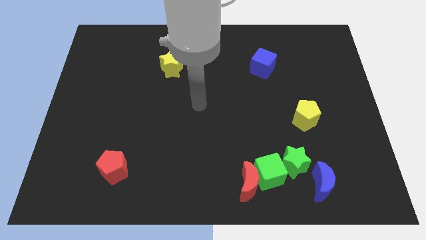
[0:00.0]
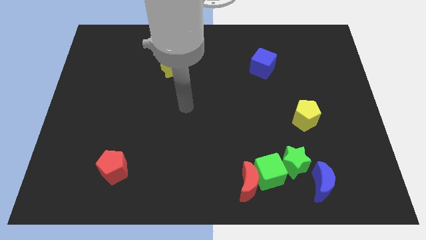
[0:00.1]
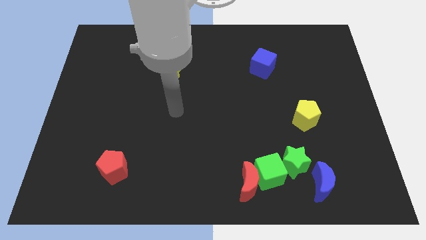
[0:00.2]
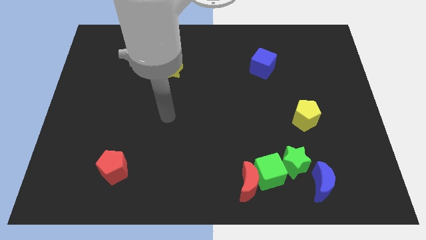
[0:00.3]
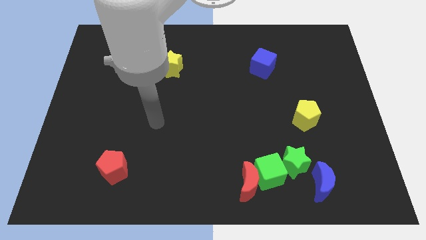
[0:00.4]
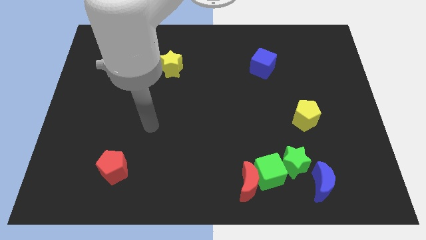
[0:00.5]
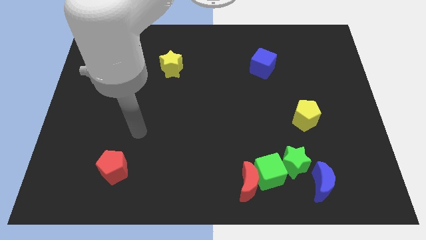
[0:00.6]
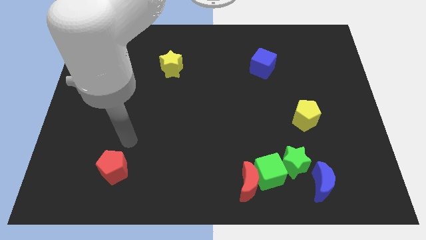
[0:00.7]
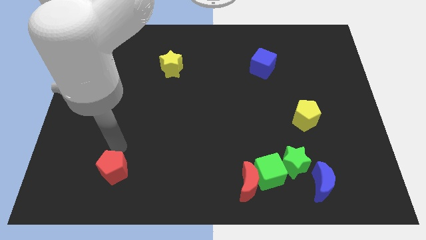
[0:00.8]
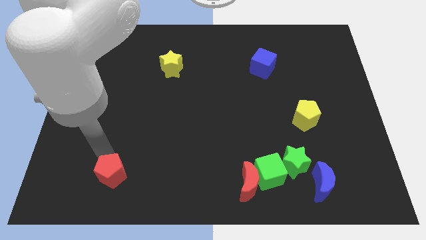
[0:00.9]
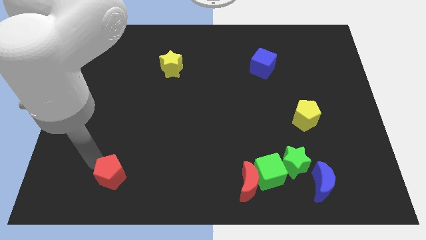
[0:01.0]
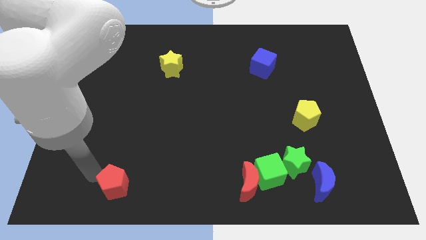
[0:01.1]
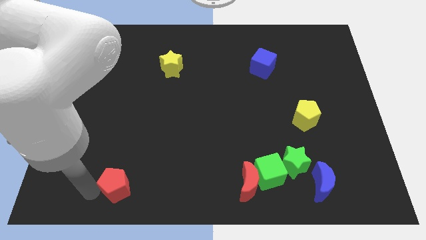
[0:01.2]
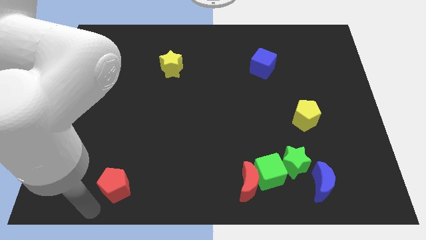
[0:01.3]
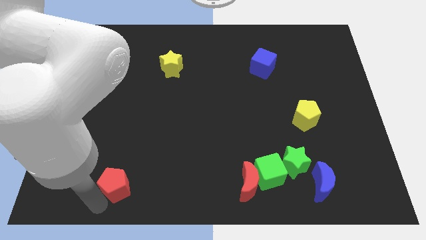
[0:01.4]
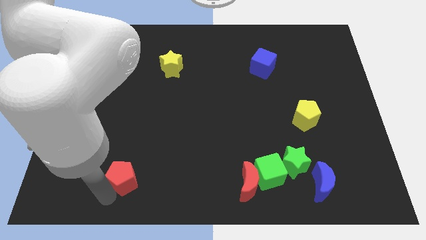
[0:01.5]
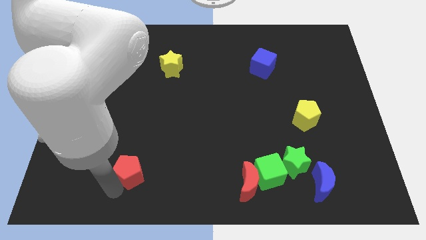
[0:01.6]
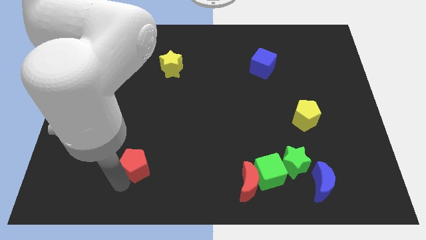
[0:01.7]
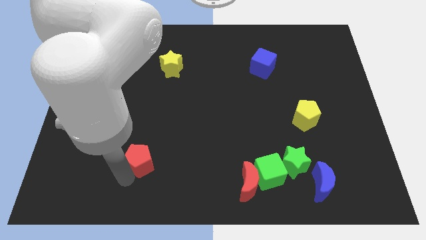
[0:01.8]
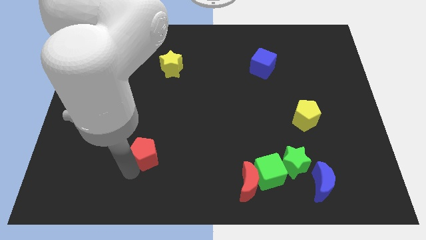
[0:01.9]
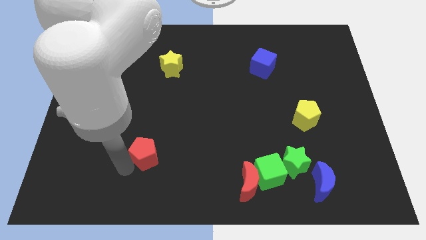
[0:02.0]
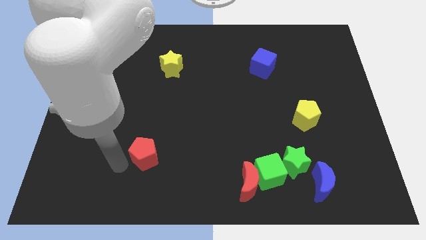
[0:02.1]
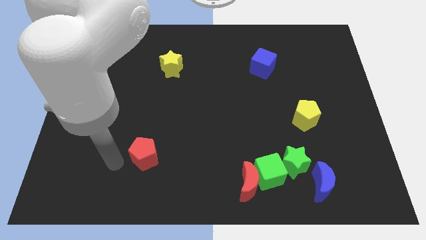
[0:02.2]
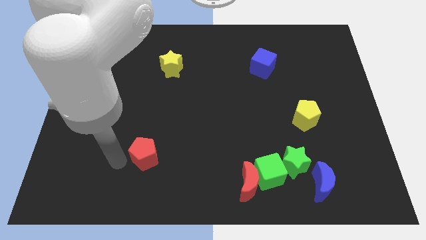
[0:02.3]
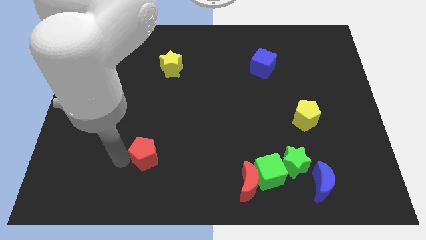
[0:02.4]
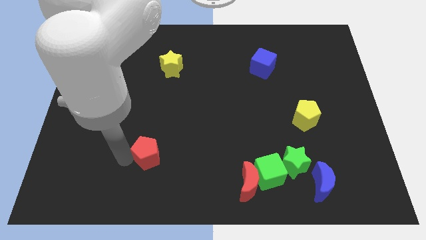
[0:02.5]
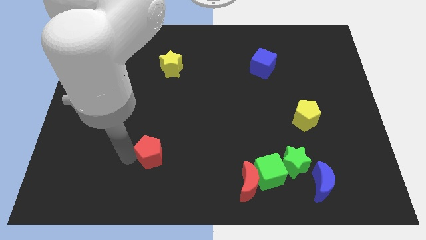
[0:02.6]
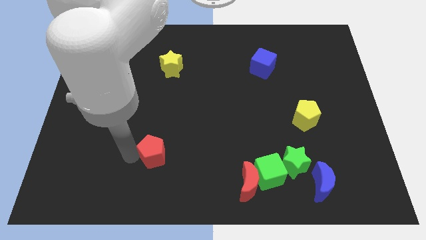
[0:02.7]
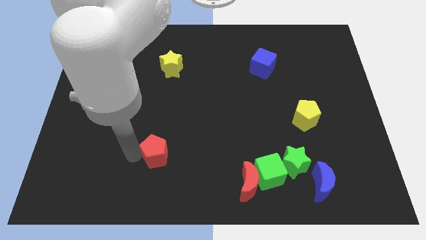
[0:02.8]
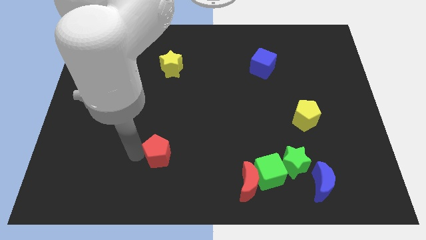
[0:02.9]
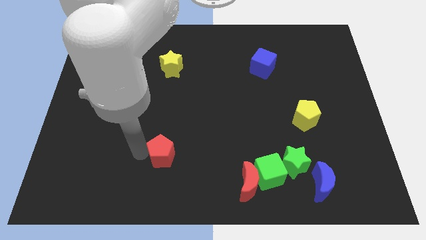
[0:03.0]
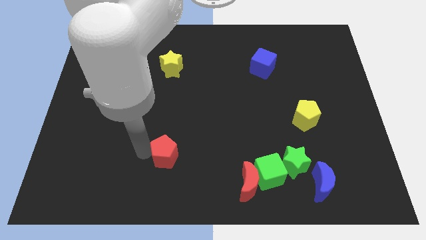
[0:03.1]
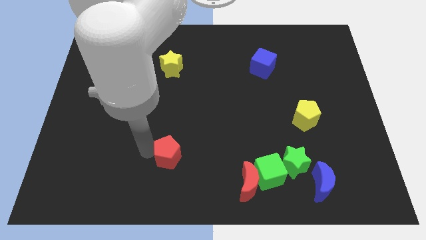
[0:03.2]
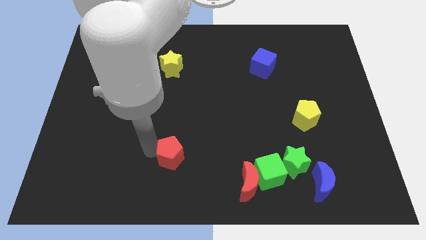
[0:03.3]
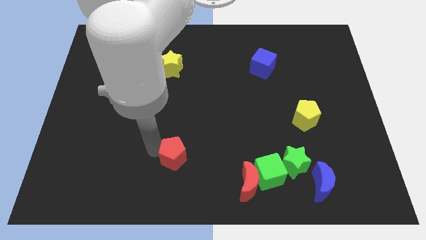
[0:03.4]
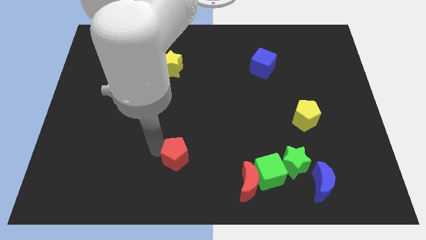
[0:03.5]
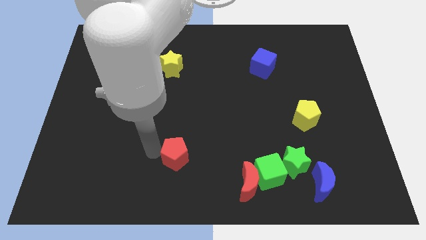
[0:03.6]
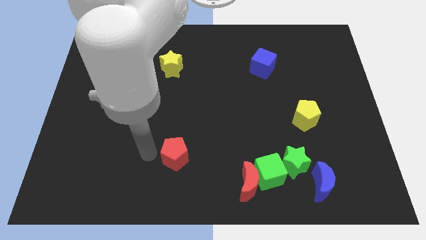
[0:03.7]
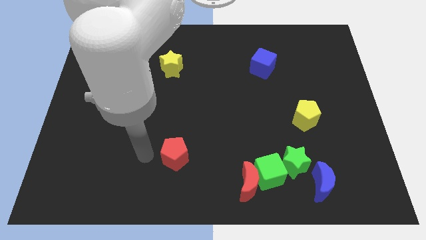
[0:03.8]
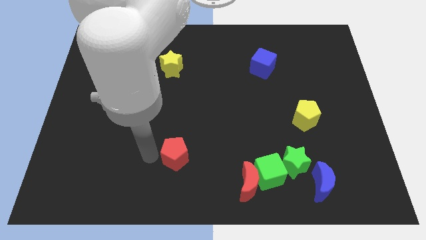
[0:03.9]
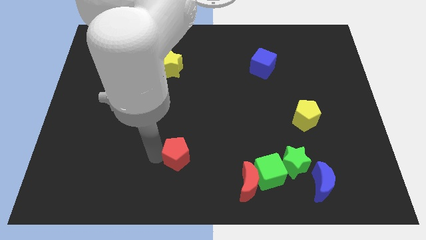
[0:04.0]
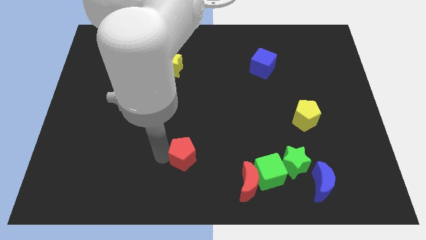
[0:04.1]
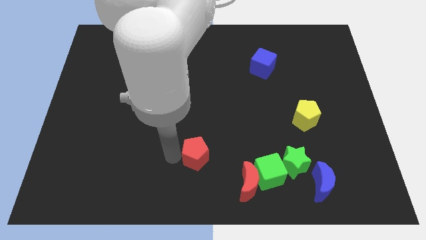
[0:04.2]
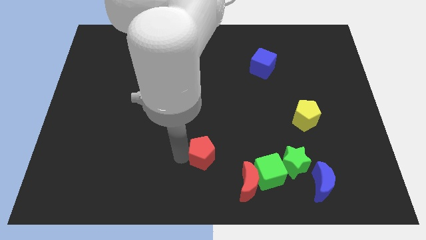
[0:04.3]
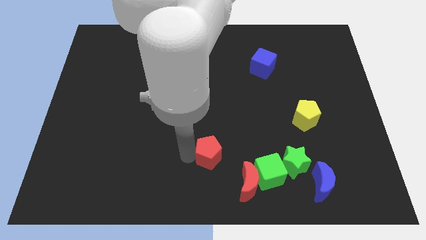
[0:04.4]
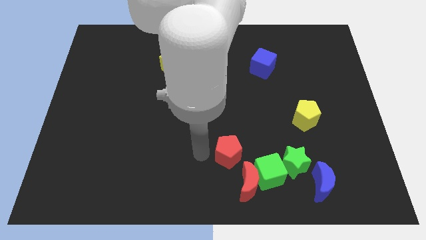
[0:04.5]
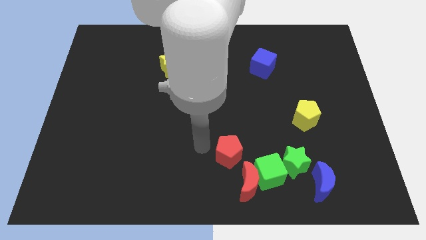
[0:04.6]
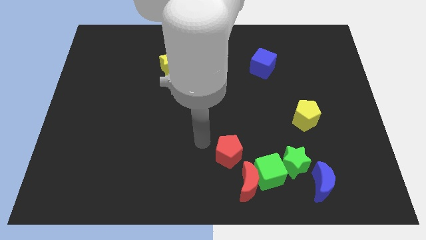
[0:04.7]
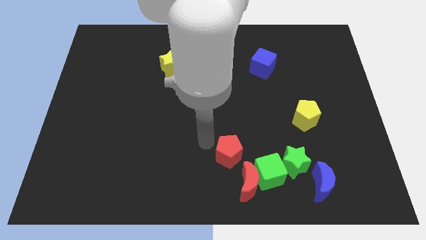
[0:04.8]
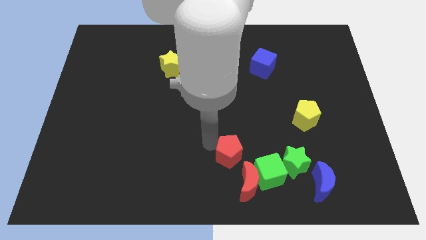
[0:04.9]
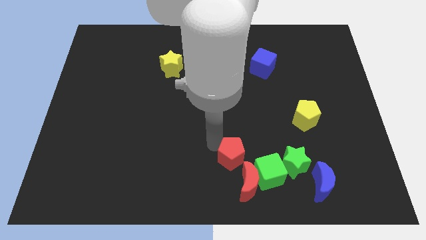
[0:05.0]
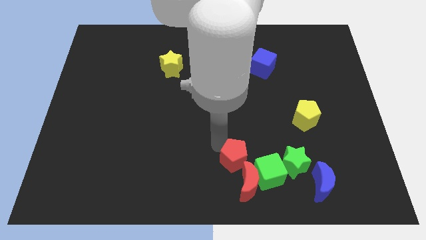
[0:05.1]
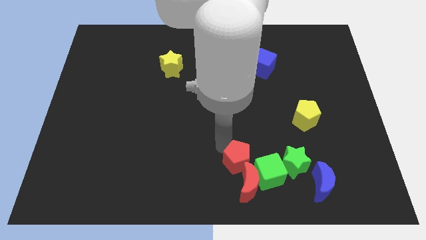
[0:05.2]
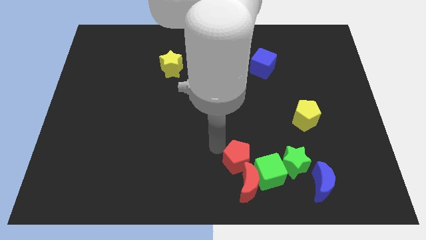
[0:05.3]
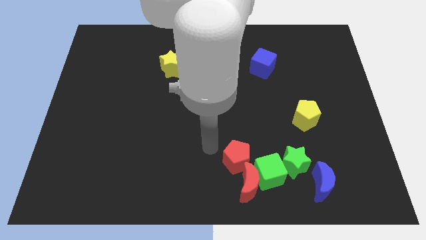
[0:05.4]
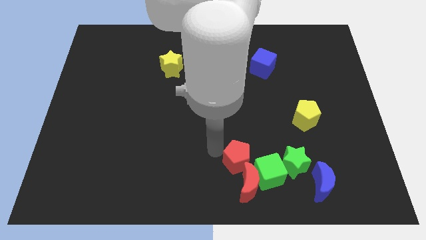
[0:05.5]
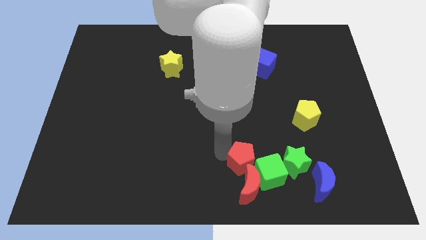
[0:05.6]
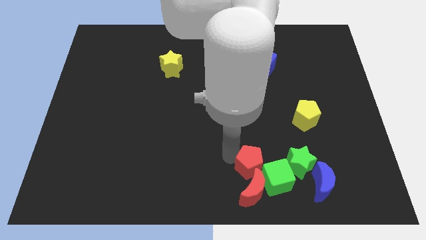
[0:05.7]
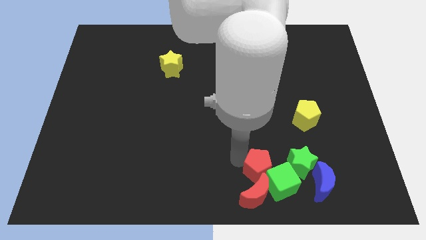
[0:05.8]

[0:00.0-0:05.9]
put the red pentagon to the green cube

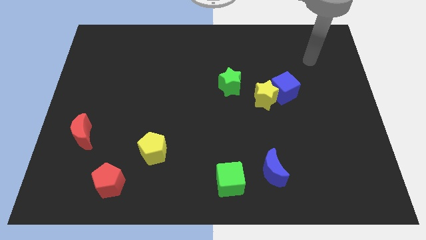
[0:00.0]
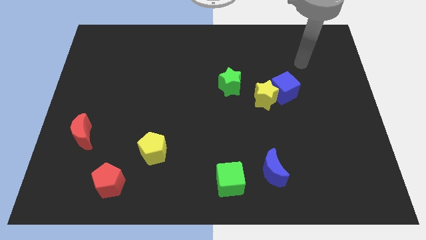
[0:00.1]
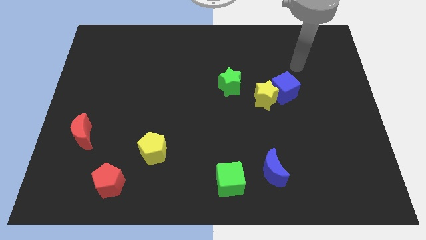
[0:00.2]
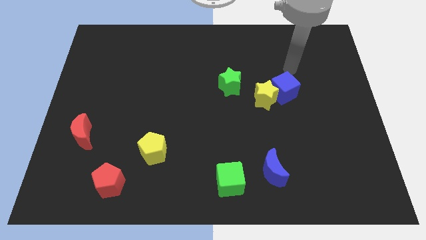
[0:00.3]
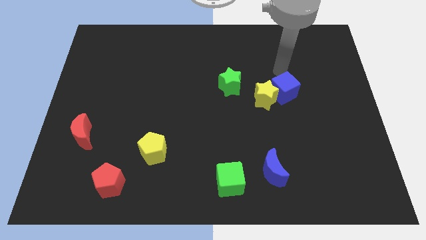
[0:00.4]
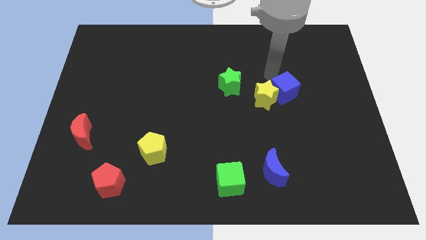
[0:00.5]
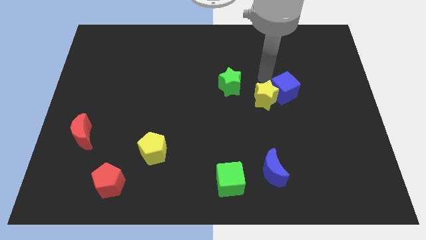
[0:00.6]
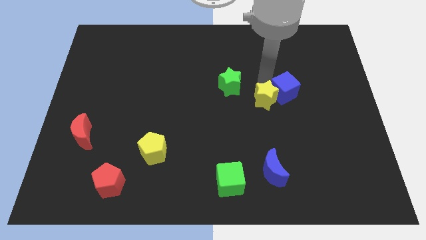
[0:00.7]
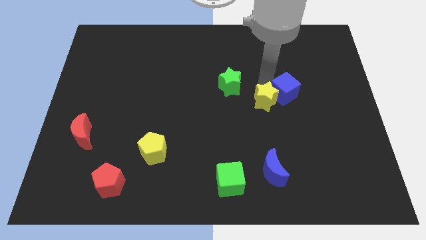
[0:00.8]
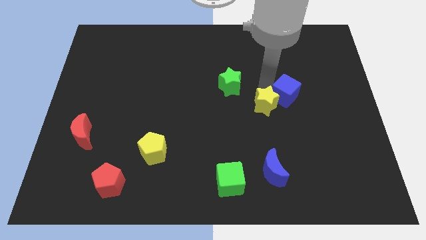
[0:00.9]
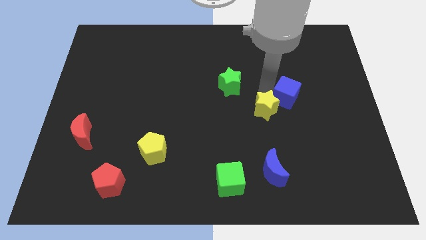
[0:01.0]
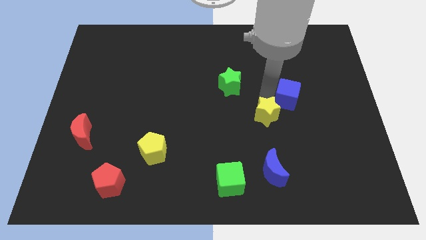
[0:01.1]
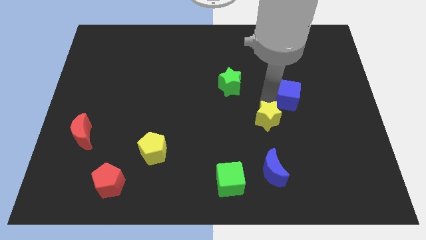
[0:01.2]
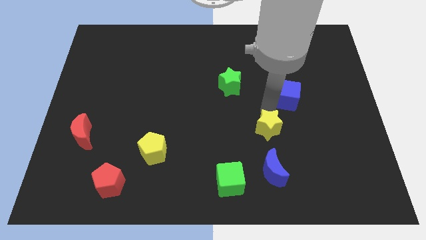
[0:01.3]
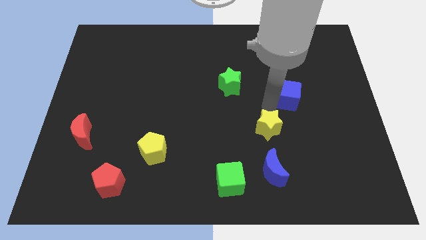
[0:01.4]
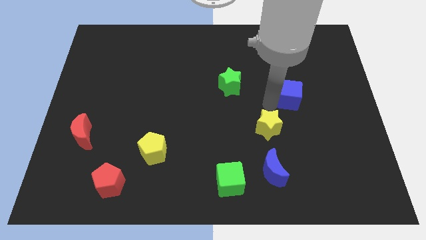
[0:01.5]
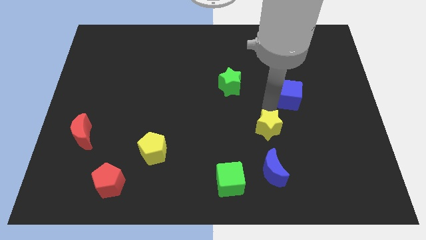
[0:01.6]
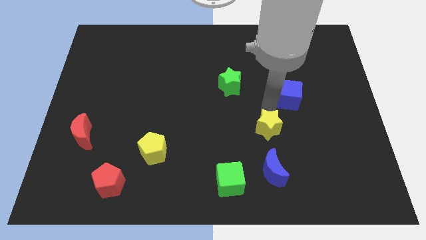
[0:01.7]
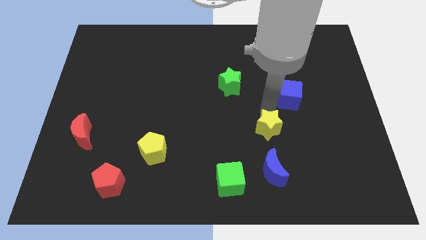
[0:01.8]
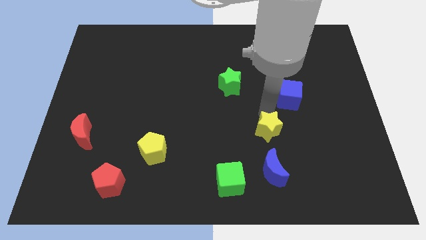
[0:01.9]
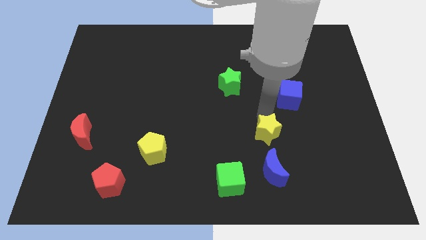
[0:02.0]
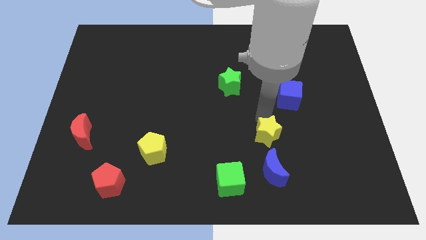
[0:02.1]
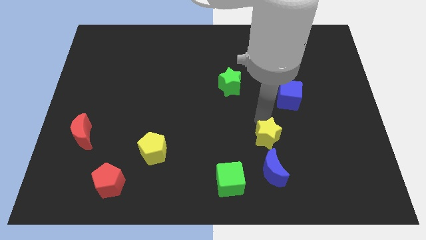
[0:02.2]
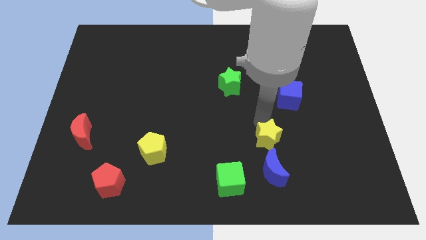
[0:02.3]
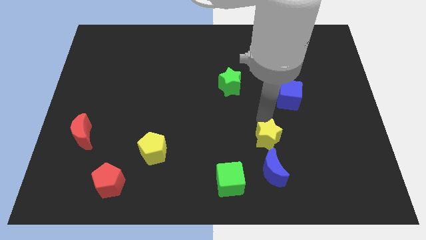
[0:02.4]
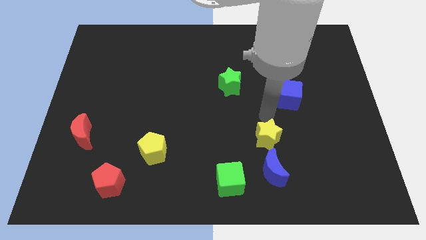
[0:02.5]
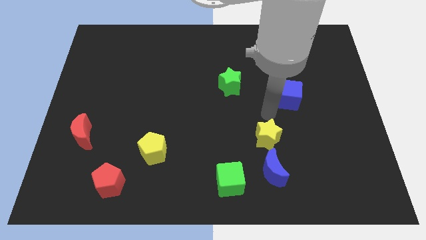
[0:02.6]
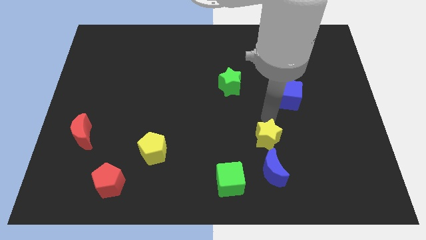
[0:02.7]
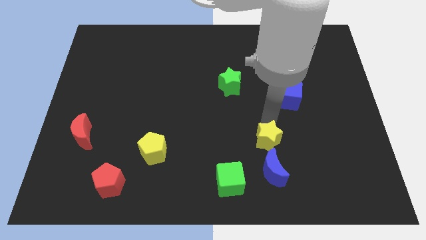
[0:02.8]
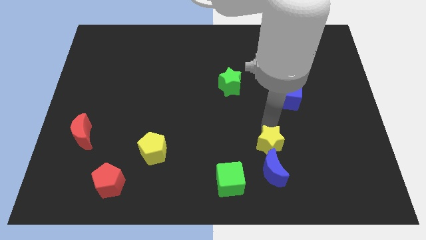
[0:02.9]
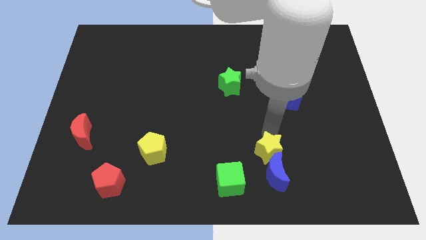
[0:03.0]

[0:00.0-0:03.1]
slide the yellow star close to the blue moon
